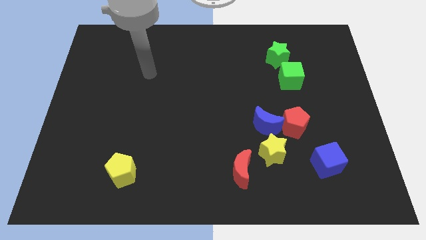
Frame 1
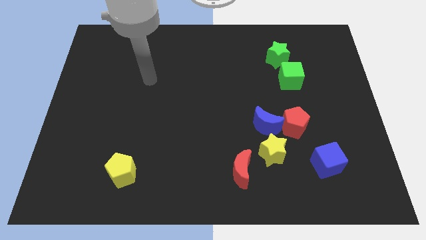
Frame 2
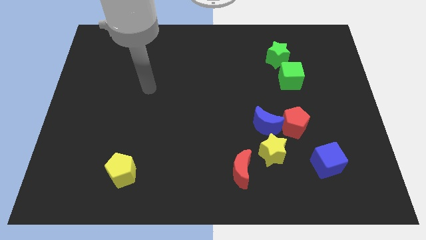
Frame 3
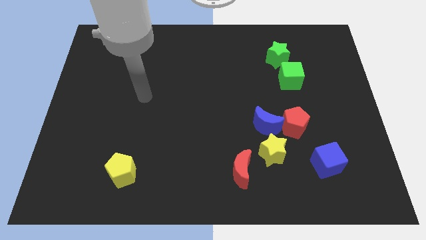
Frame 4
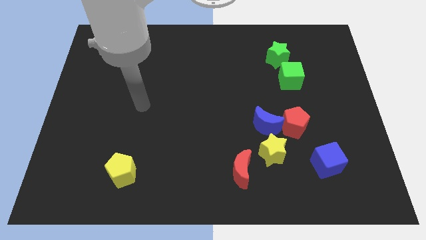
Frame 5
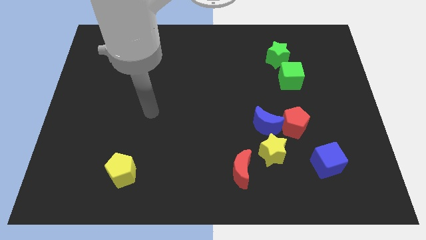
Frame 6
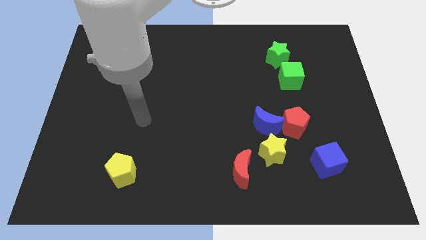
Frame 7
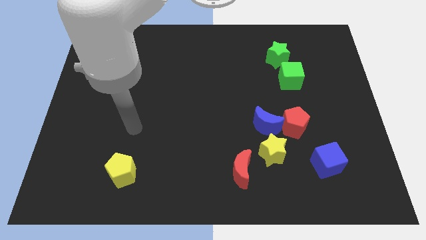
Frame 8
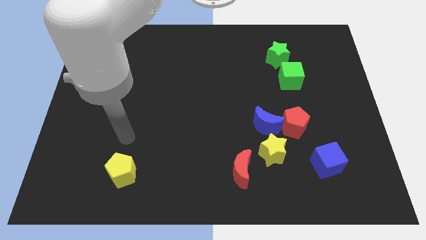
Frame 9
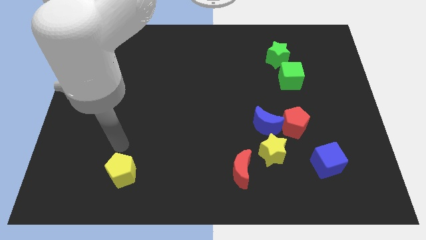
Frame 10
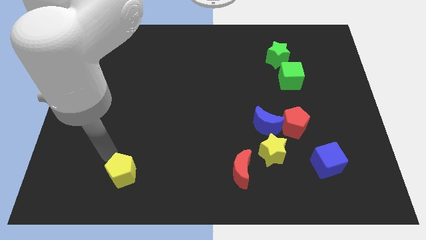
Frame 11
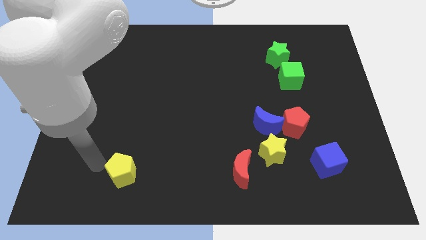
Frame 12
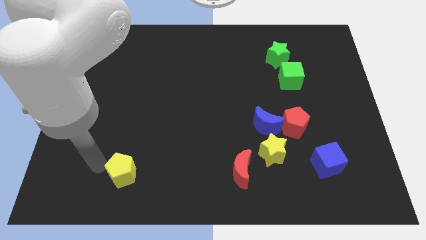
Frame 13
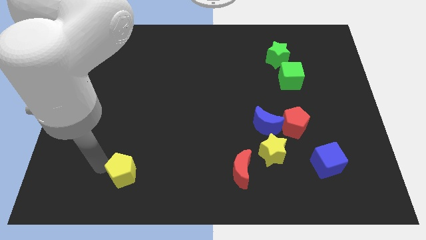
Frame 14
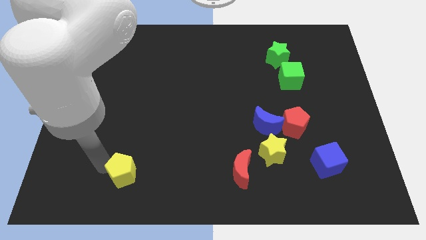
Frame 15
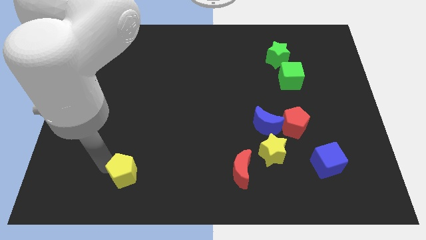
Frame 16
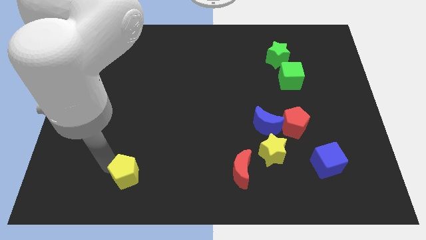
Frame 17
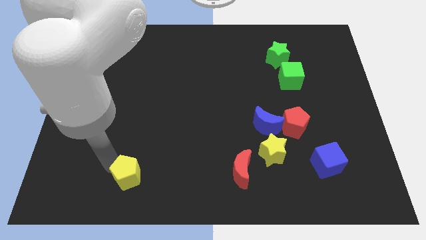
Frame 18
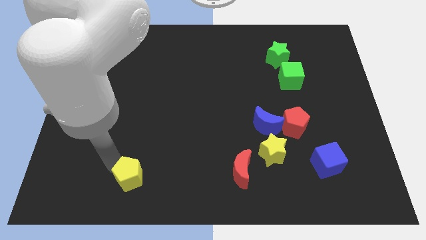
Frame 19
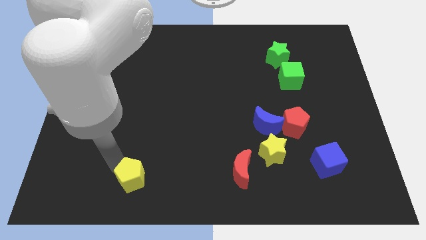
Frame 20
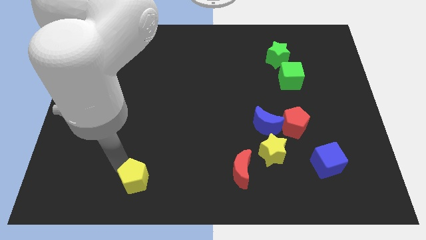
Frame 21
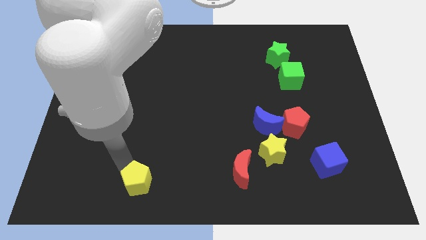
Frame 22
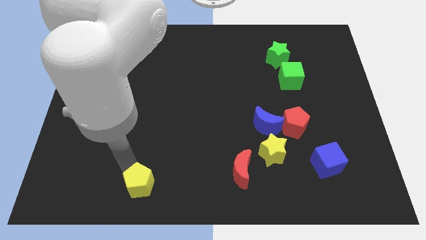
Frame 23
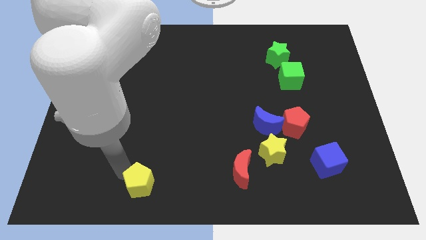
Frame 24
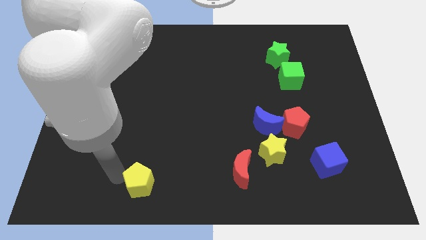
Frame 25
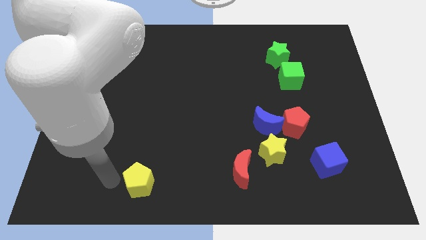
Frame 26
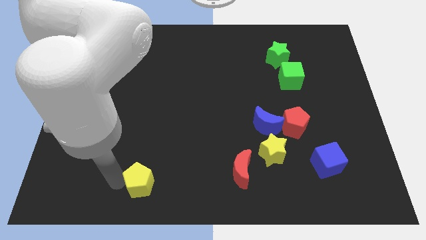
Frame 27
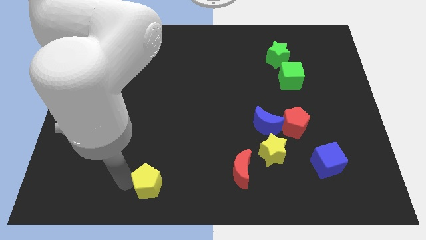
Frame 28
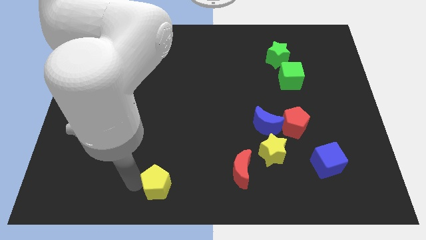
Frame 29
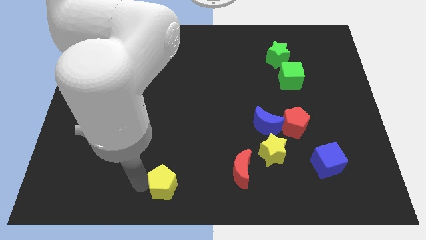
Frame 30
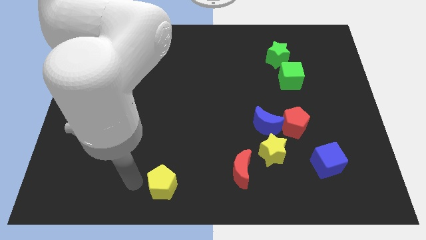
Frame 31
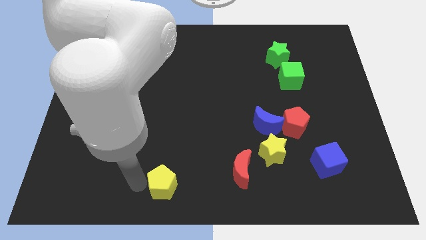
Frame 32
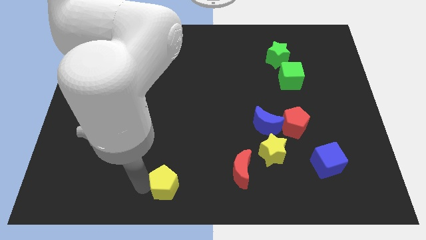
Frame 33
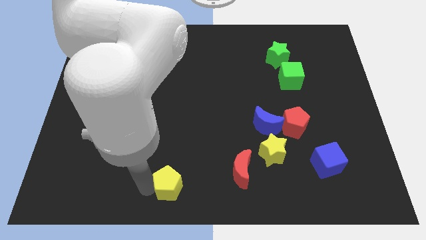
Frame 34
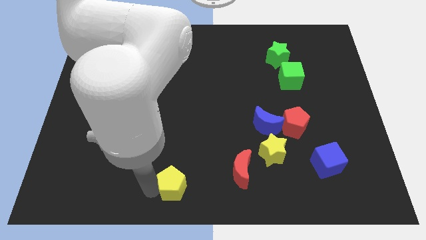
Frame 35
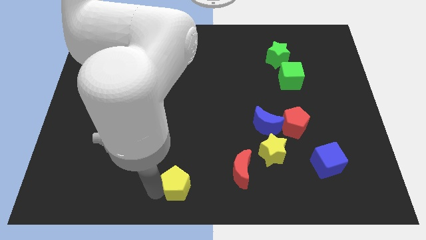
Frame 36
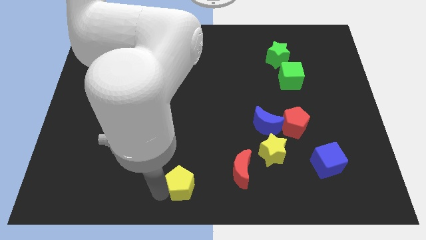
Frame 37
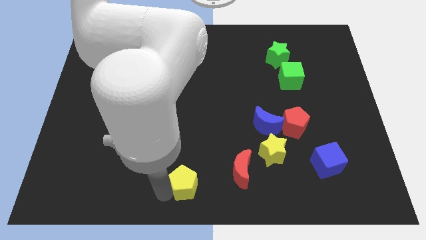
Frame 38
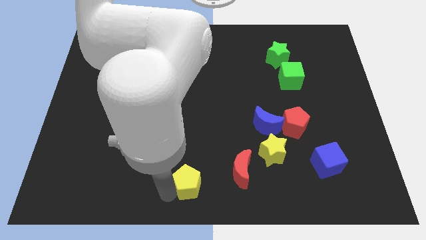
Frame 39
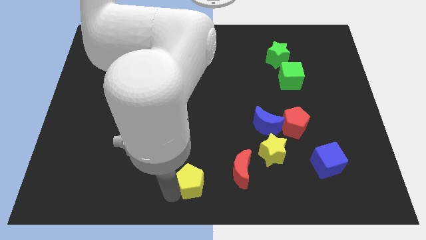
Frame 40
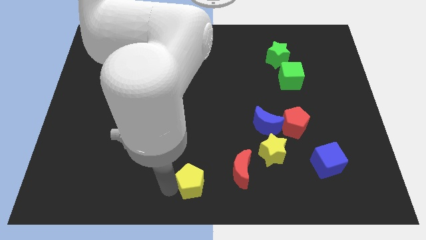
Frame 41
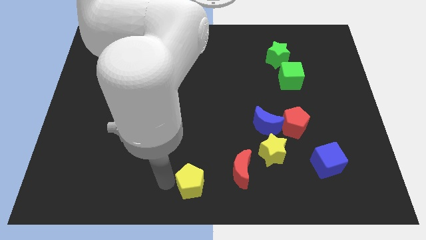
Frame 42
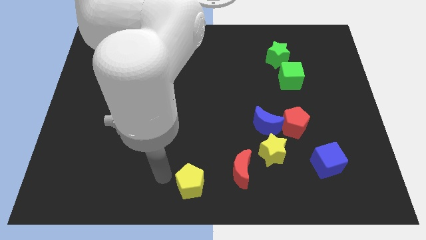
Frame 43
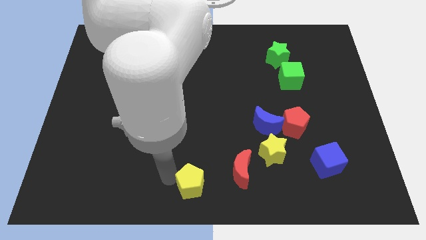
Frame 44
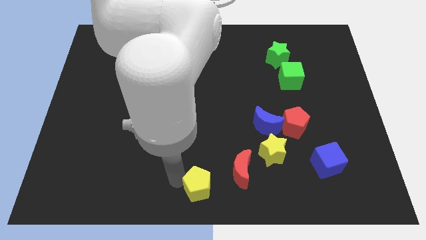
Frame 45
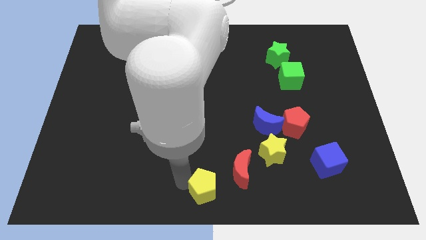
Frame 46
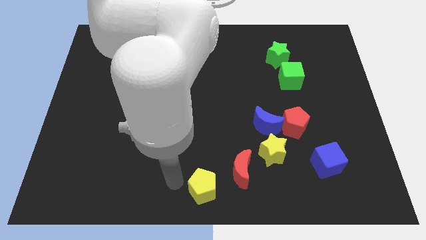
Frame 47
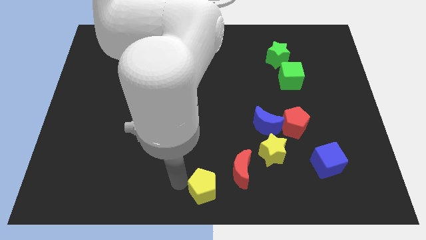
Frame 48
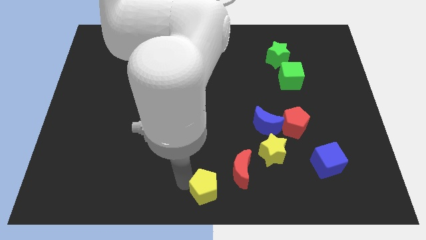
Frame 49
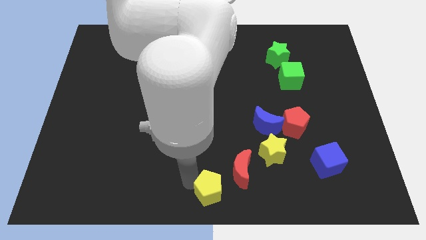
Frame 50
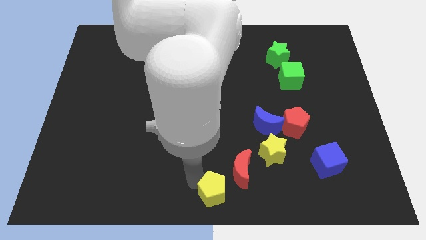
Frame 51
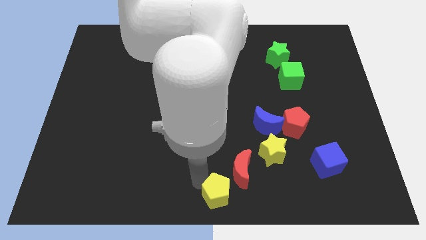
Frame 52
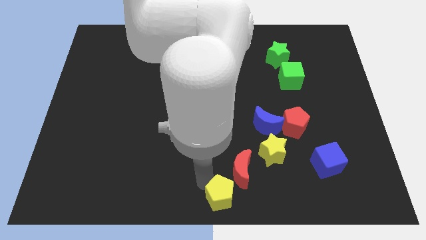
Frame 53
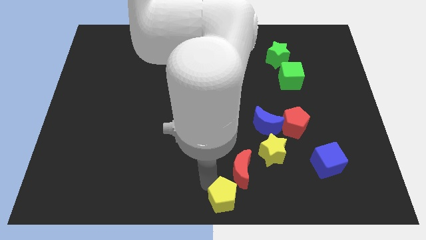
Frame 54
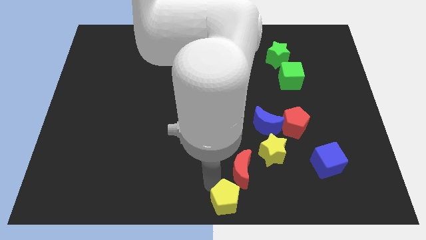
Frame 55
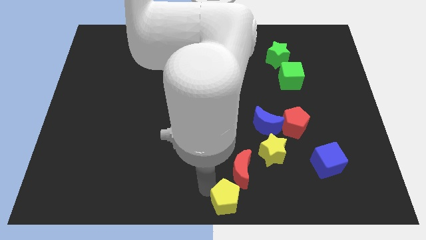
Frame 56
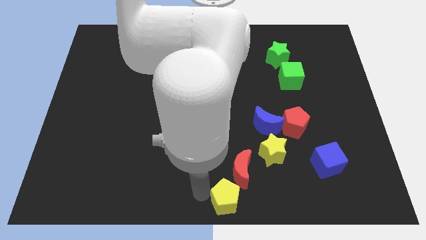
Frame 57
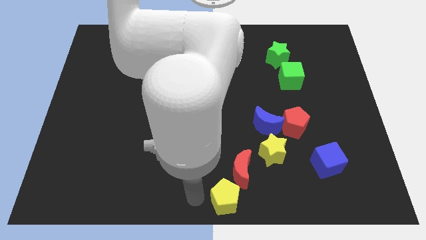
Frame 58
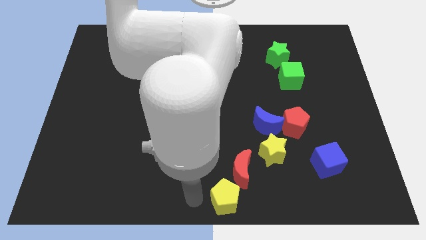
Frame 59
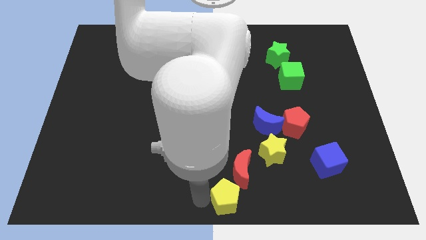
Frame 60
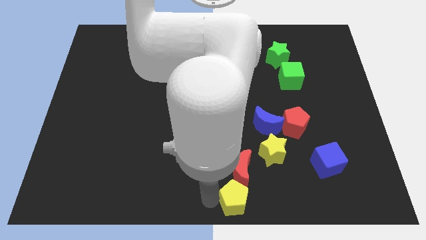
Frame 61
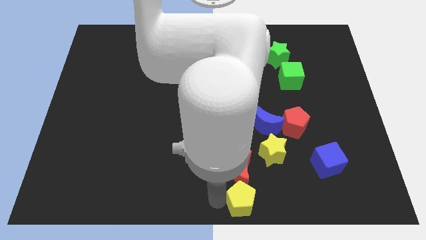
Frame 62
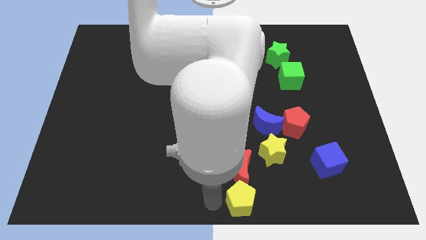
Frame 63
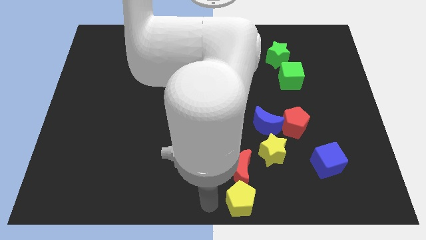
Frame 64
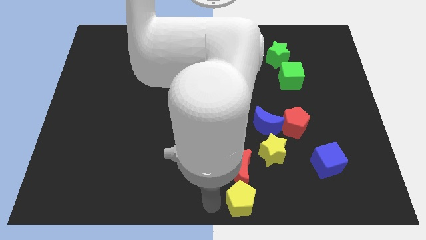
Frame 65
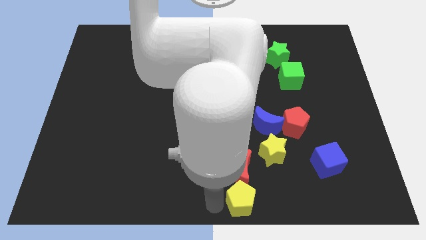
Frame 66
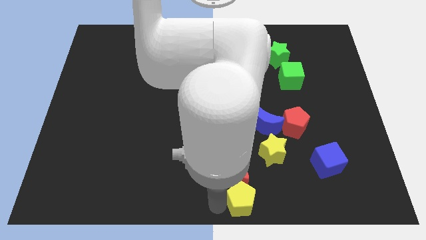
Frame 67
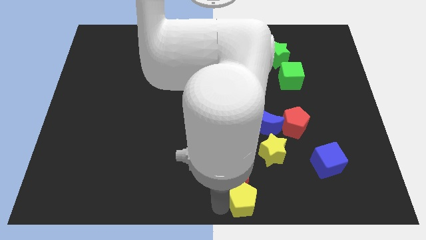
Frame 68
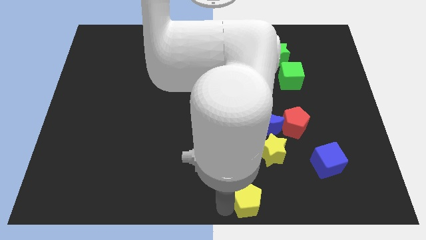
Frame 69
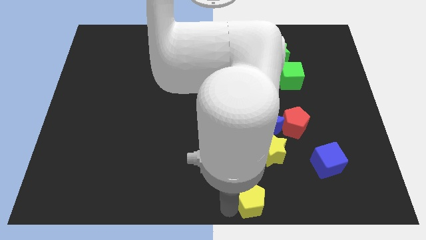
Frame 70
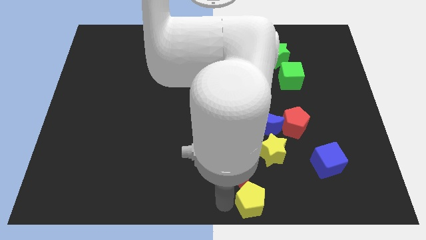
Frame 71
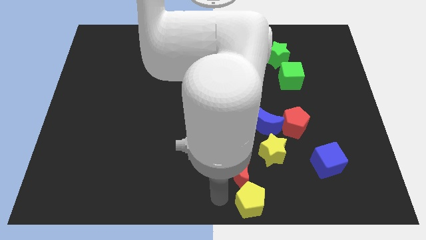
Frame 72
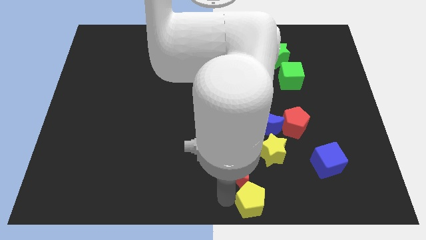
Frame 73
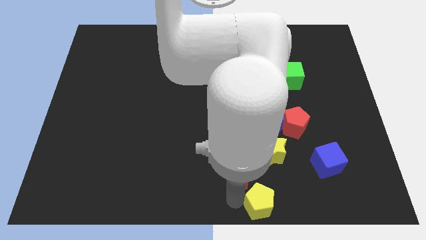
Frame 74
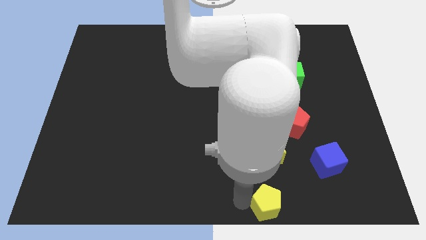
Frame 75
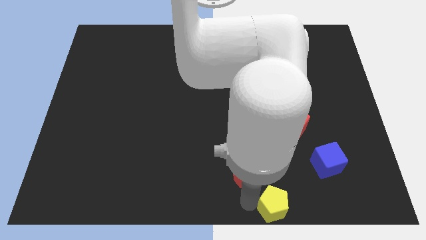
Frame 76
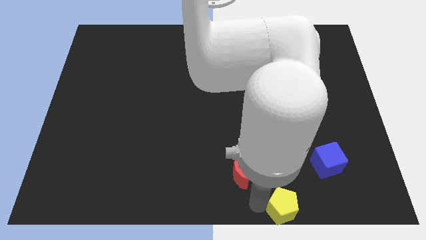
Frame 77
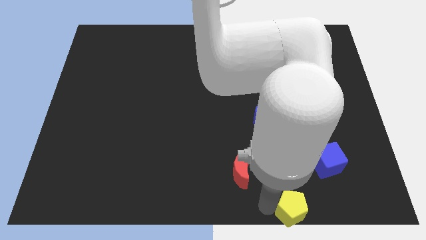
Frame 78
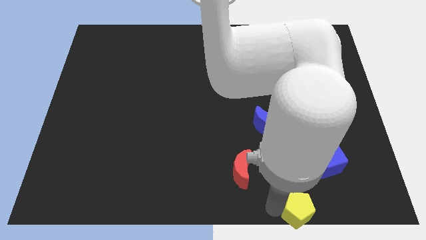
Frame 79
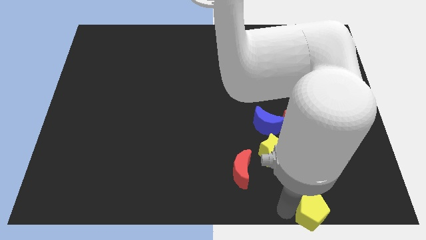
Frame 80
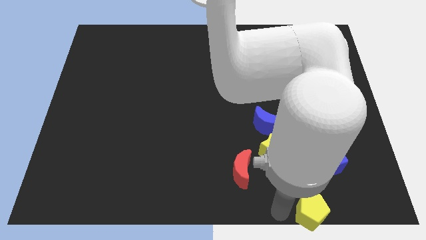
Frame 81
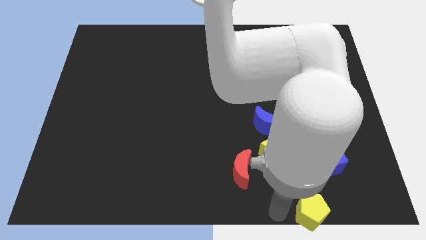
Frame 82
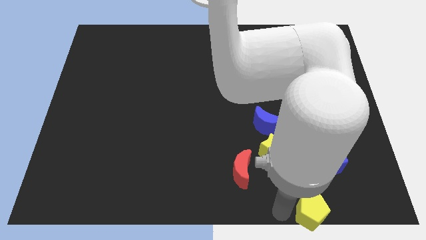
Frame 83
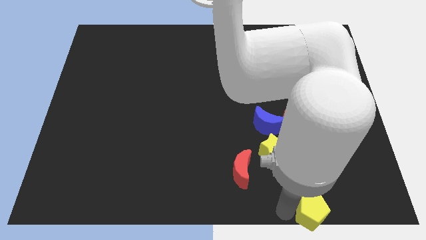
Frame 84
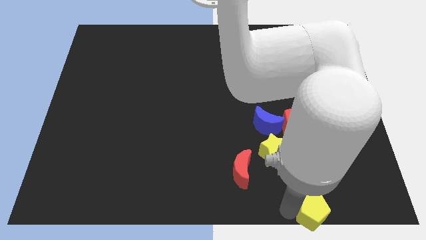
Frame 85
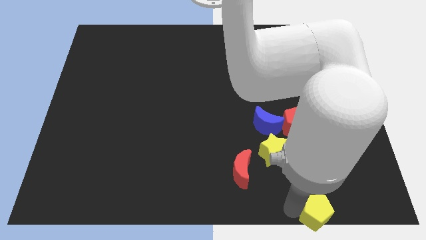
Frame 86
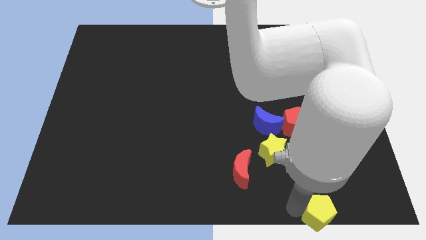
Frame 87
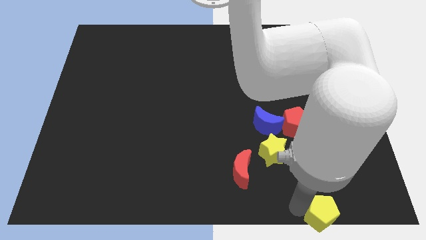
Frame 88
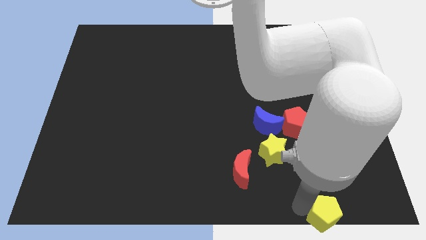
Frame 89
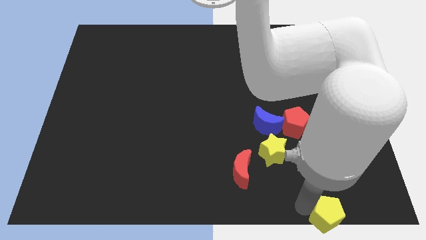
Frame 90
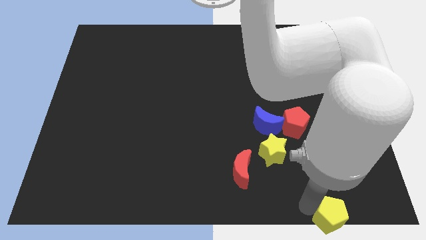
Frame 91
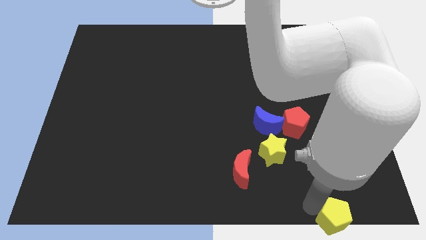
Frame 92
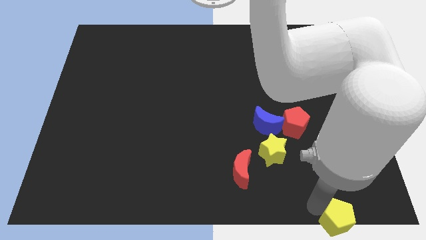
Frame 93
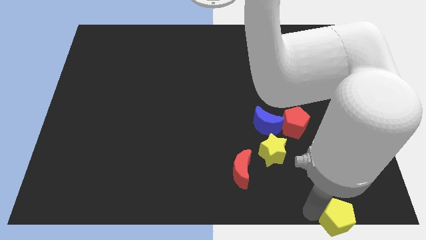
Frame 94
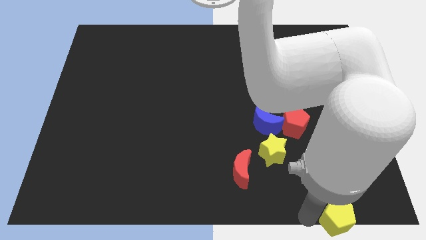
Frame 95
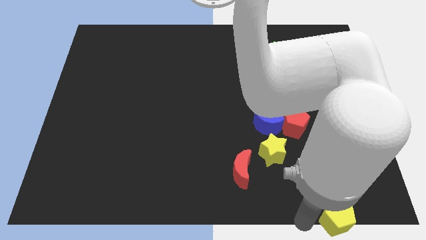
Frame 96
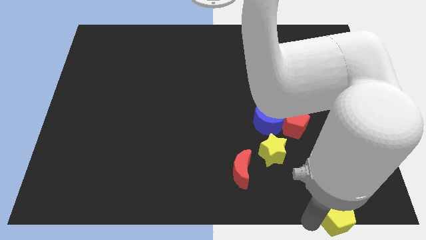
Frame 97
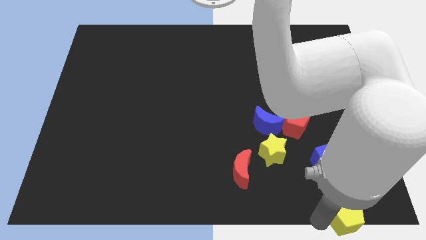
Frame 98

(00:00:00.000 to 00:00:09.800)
move the yellow pentagon to the lower right corner
